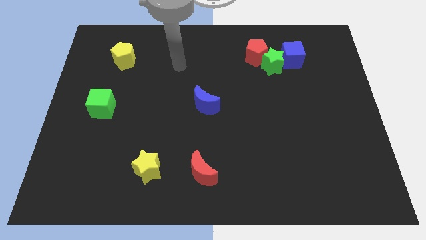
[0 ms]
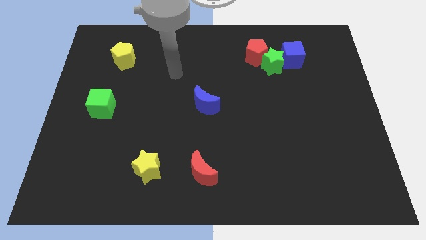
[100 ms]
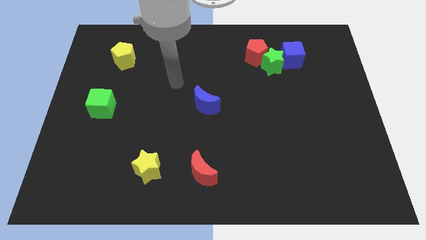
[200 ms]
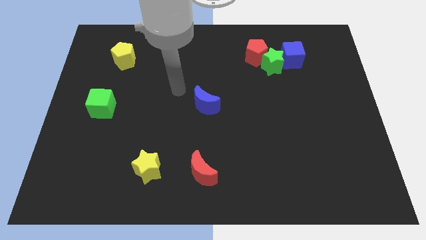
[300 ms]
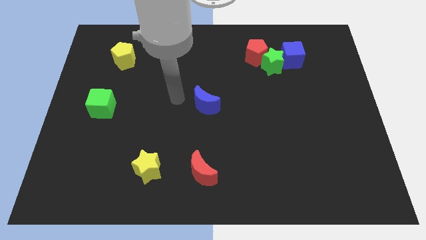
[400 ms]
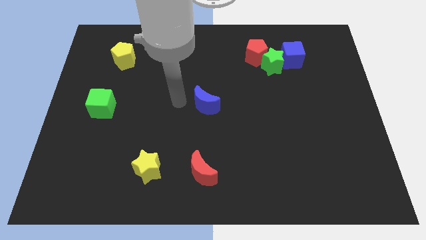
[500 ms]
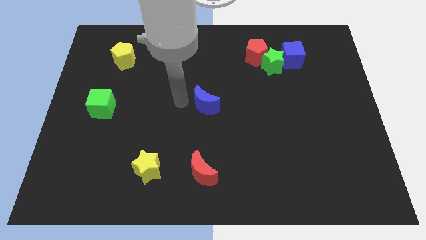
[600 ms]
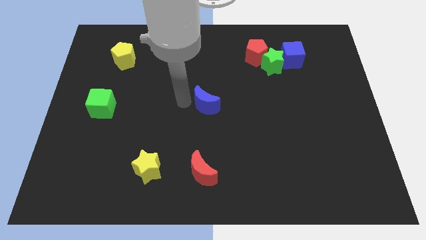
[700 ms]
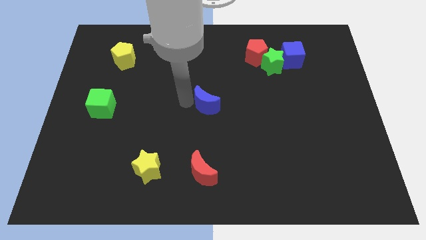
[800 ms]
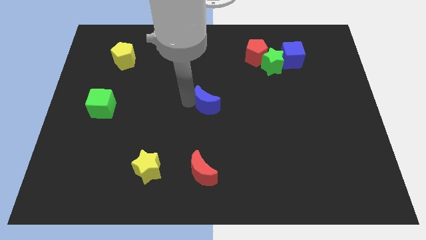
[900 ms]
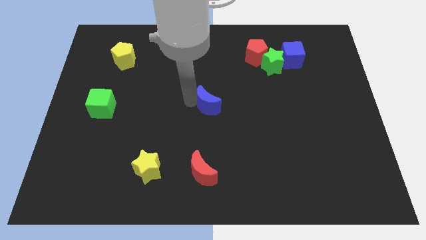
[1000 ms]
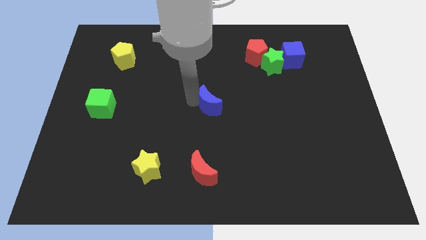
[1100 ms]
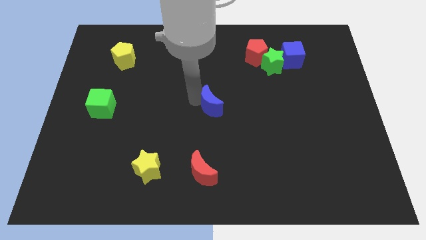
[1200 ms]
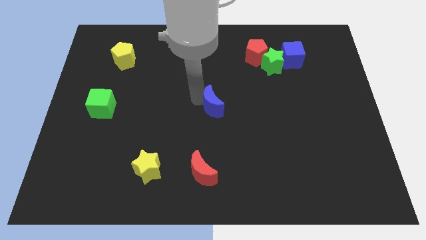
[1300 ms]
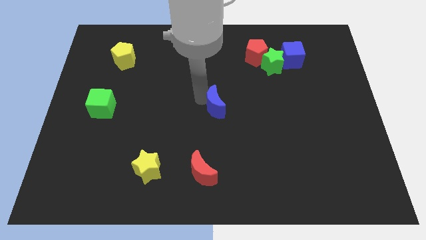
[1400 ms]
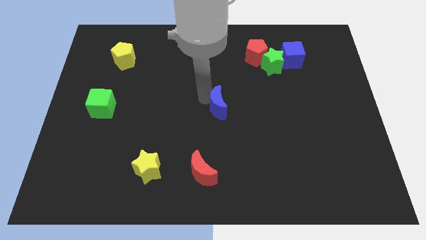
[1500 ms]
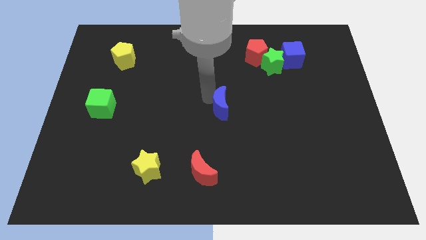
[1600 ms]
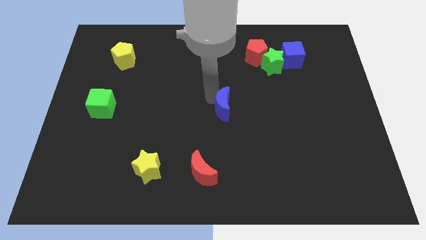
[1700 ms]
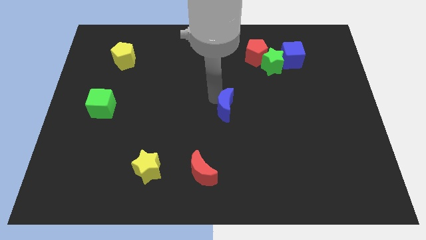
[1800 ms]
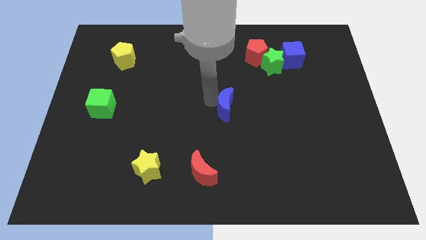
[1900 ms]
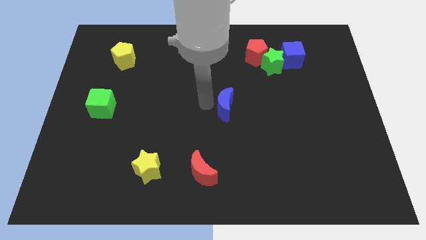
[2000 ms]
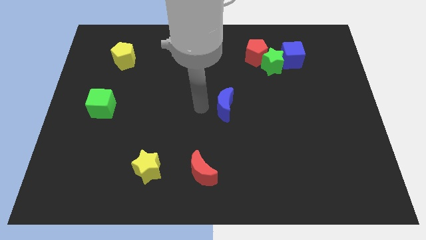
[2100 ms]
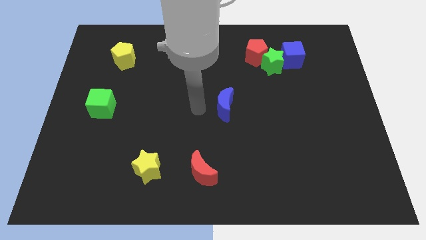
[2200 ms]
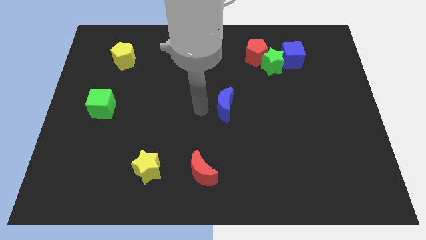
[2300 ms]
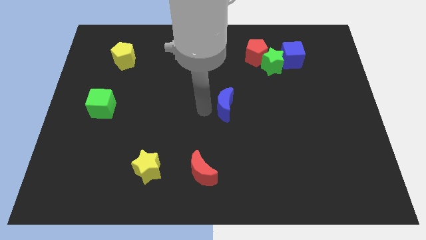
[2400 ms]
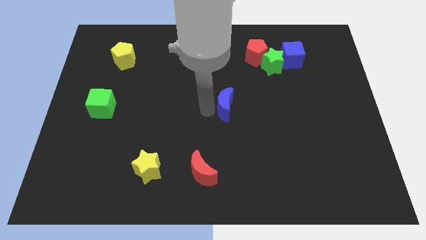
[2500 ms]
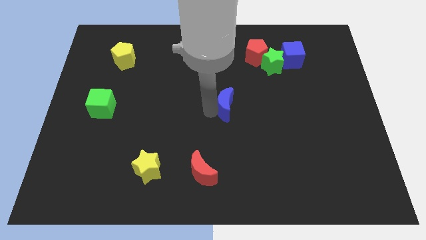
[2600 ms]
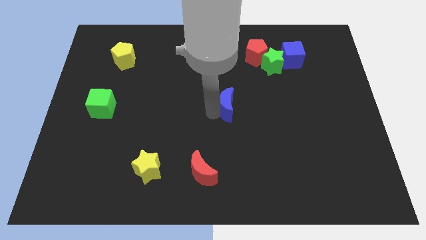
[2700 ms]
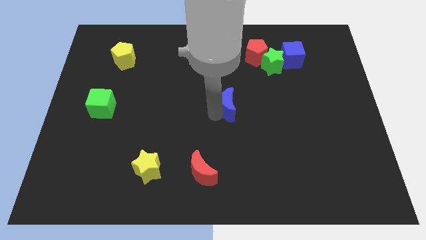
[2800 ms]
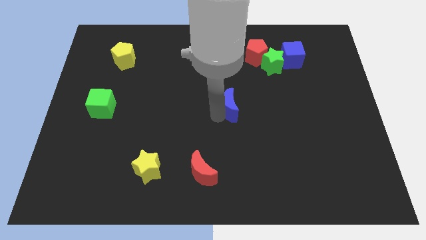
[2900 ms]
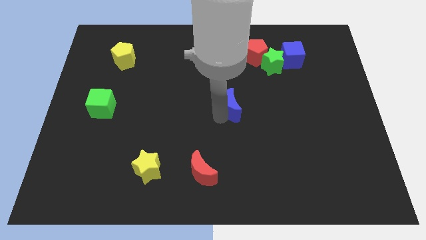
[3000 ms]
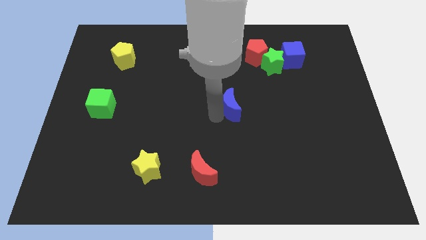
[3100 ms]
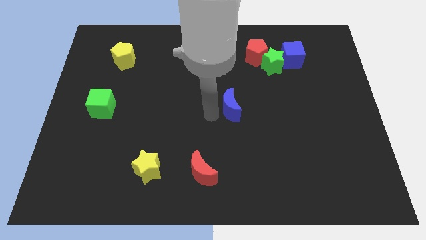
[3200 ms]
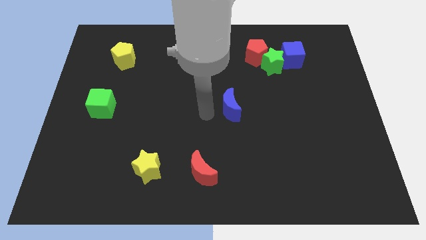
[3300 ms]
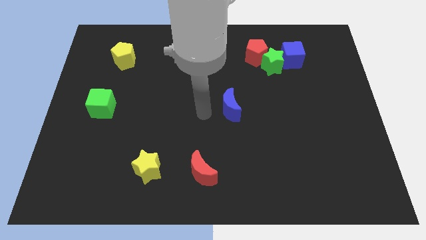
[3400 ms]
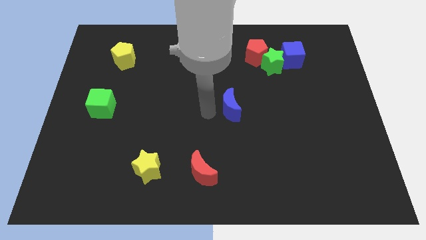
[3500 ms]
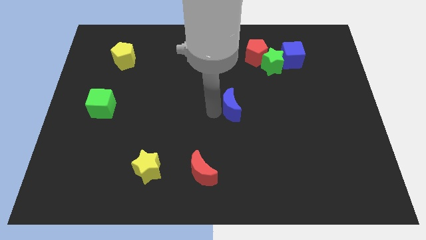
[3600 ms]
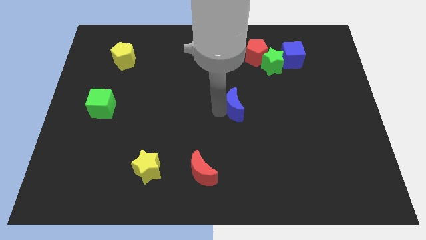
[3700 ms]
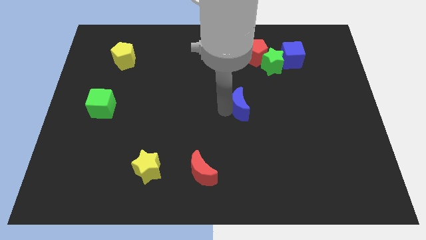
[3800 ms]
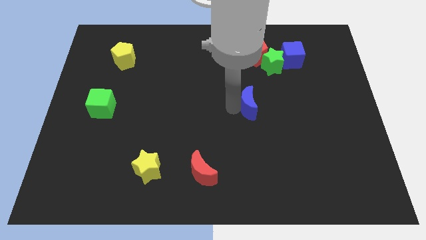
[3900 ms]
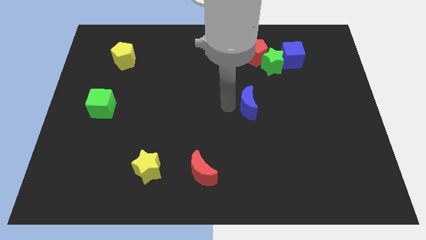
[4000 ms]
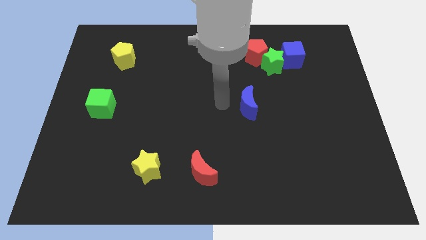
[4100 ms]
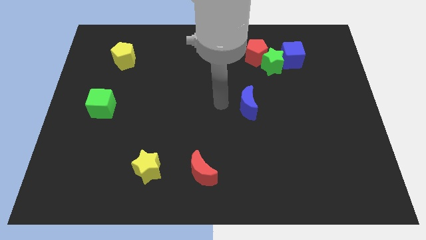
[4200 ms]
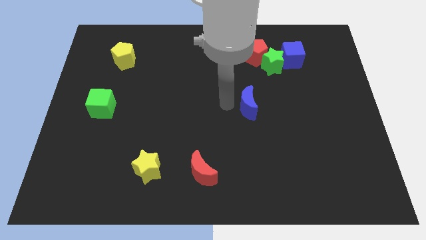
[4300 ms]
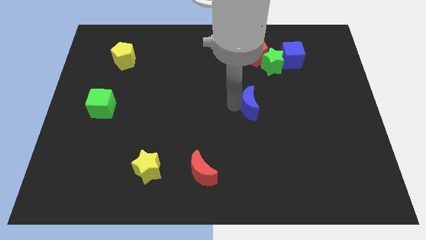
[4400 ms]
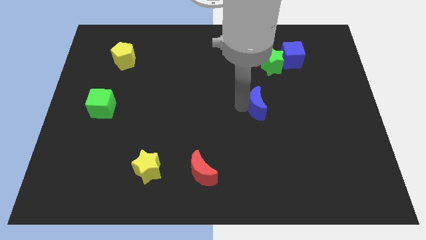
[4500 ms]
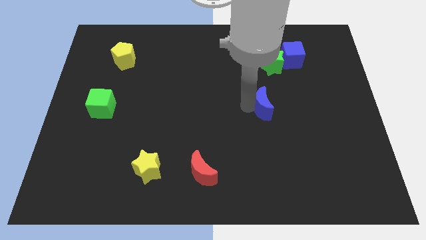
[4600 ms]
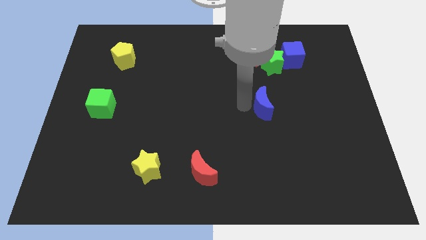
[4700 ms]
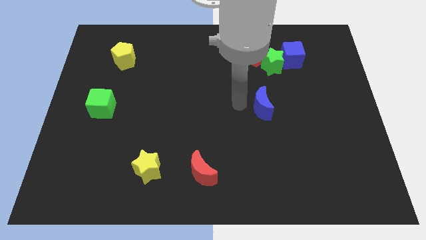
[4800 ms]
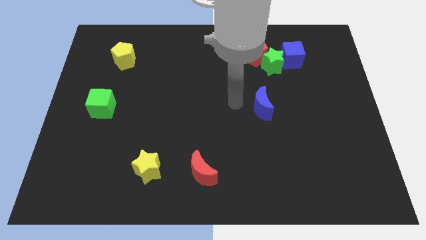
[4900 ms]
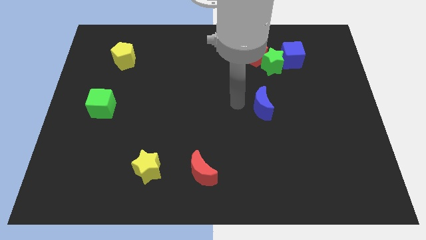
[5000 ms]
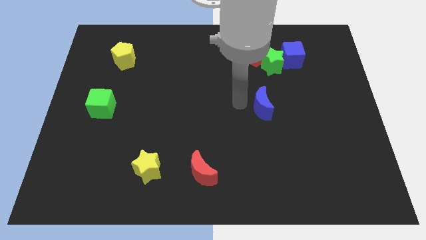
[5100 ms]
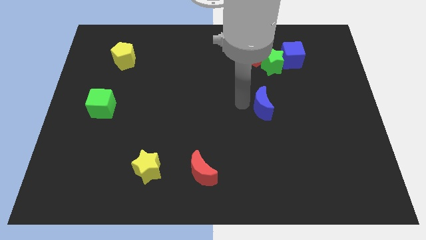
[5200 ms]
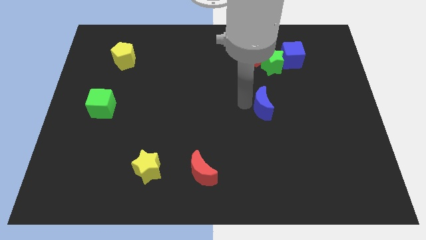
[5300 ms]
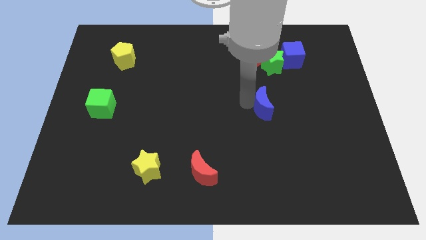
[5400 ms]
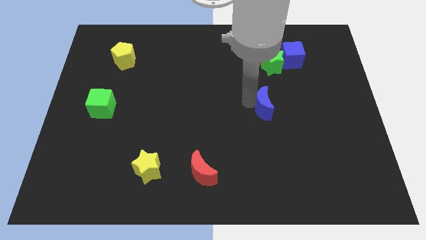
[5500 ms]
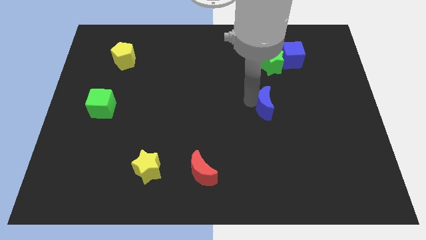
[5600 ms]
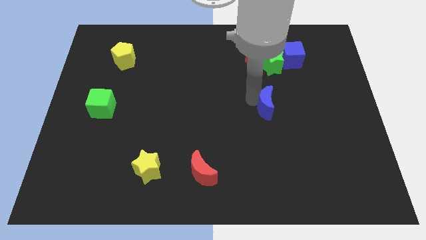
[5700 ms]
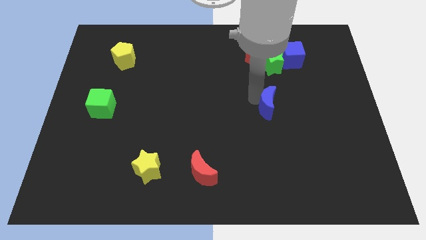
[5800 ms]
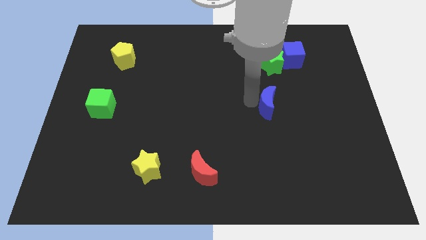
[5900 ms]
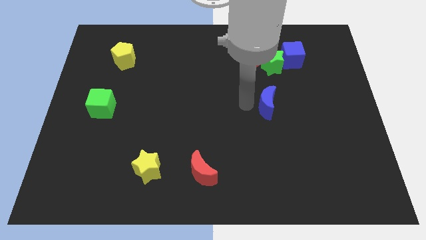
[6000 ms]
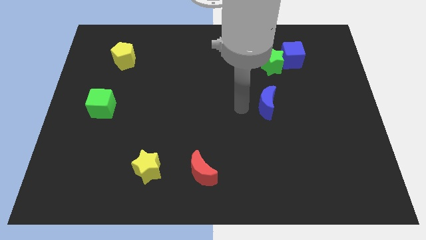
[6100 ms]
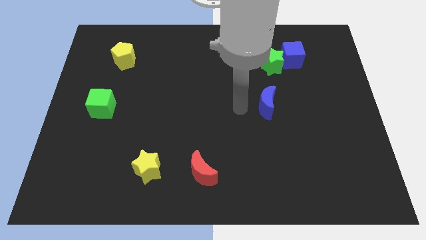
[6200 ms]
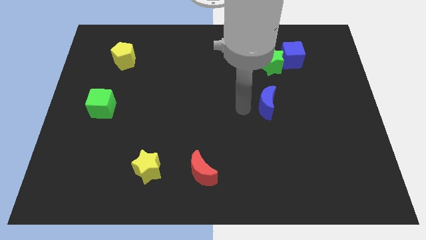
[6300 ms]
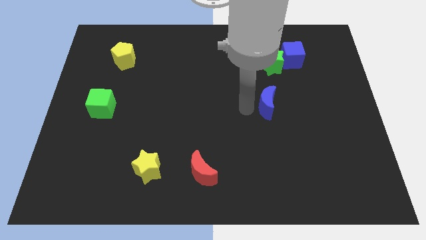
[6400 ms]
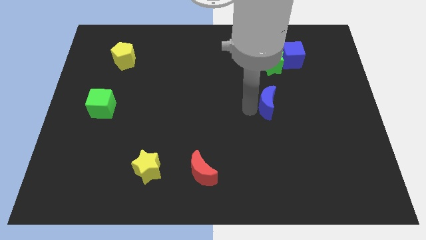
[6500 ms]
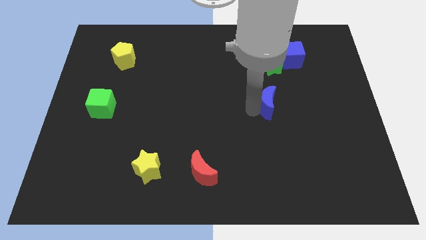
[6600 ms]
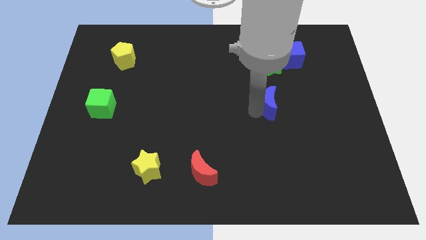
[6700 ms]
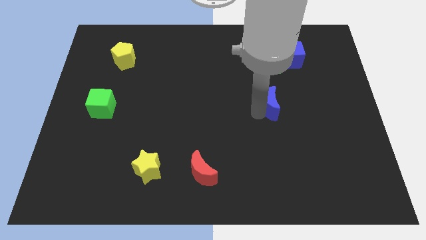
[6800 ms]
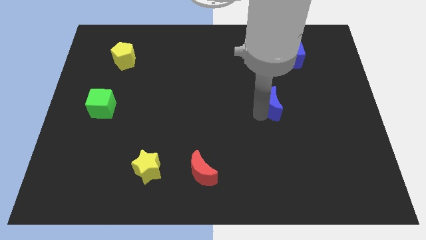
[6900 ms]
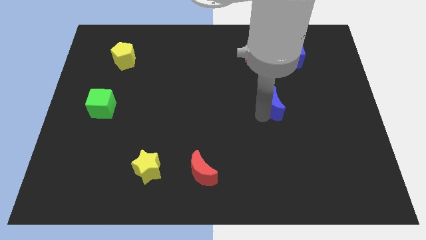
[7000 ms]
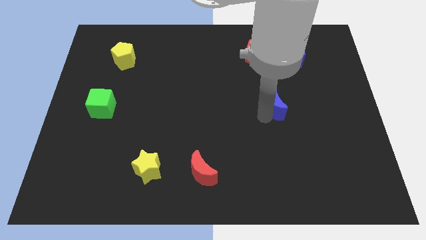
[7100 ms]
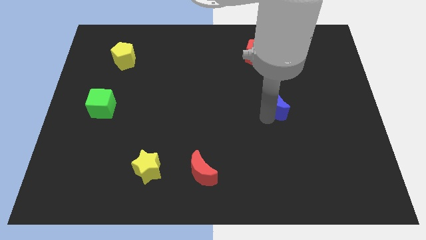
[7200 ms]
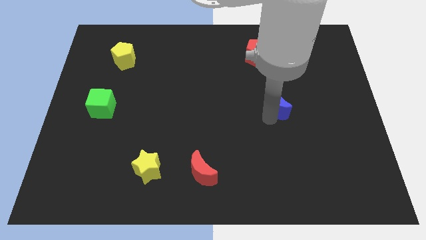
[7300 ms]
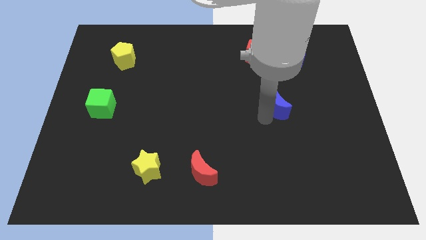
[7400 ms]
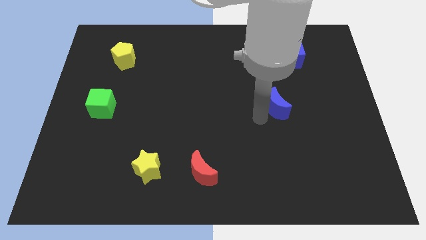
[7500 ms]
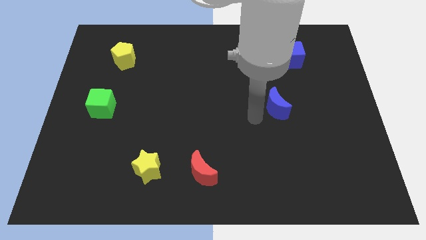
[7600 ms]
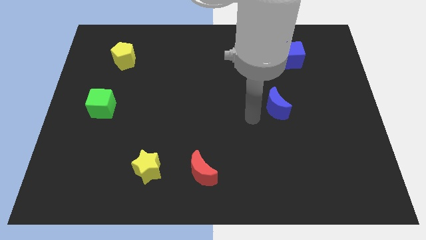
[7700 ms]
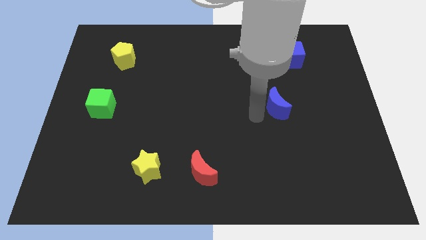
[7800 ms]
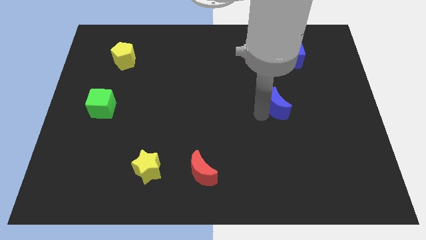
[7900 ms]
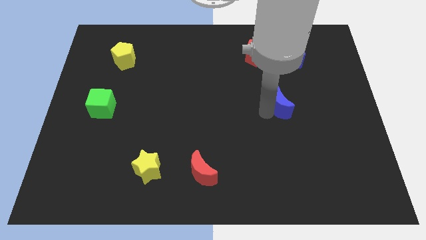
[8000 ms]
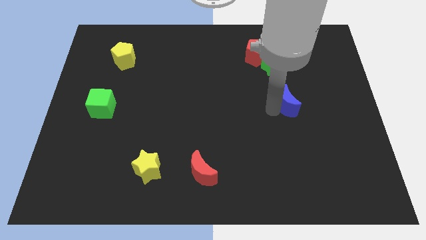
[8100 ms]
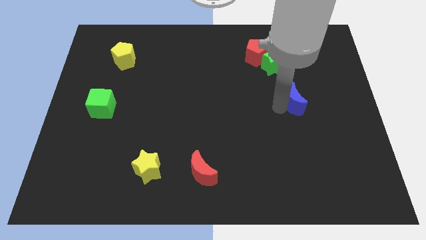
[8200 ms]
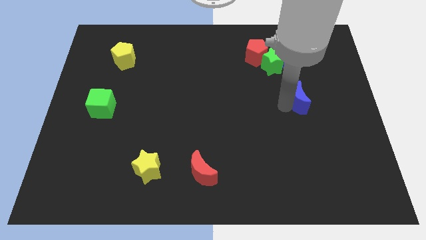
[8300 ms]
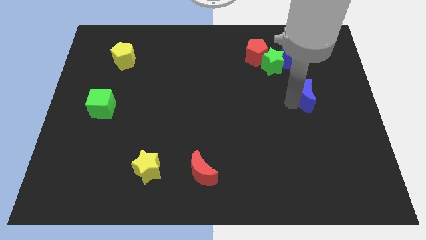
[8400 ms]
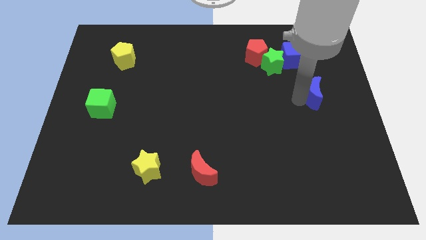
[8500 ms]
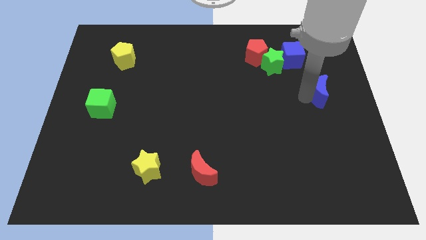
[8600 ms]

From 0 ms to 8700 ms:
slide the blue moon to the right side
